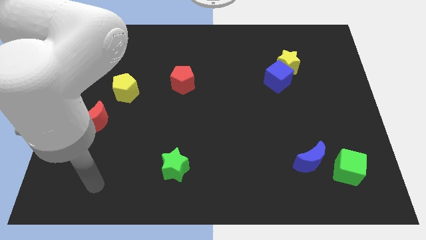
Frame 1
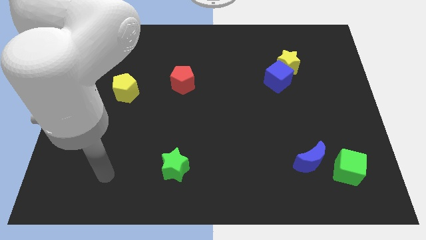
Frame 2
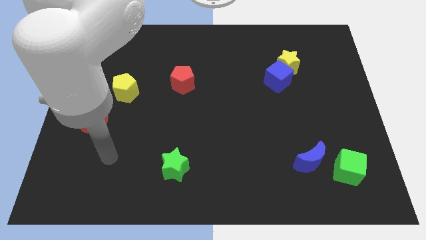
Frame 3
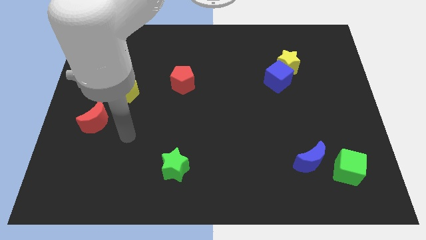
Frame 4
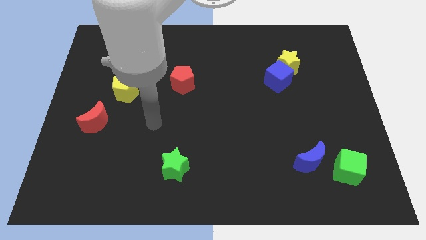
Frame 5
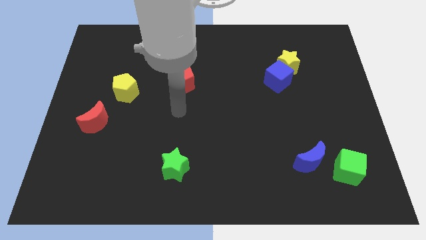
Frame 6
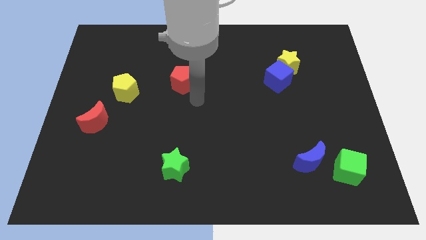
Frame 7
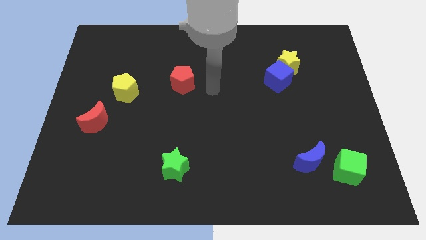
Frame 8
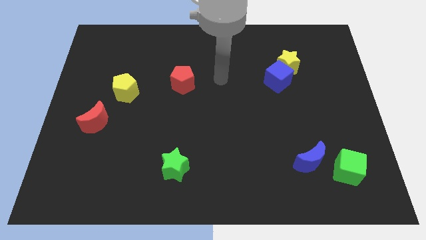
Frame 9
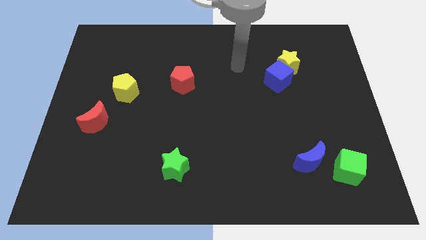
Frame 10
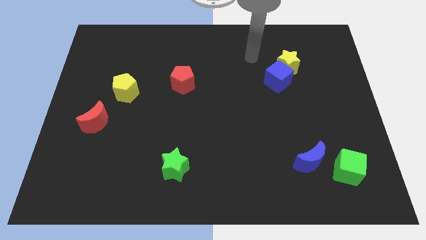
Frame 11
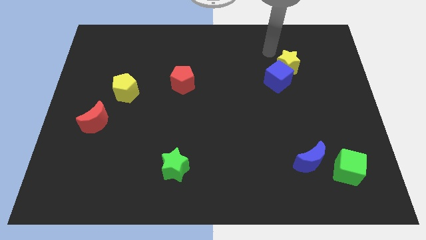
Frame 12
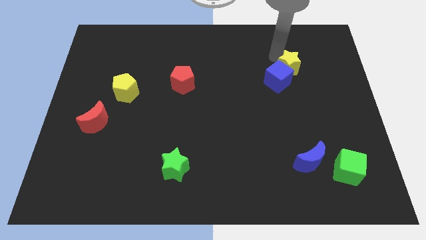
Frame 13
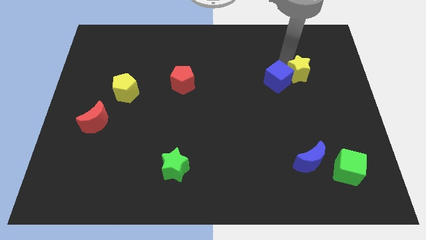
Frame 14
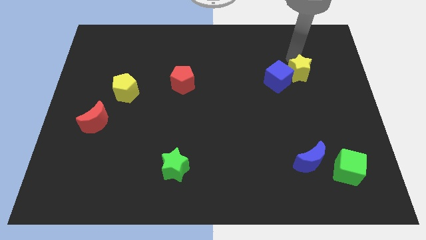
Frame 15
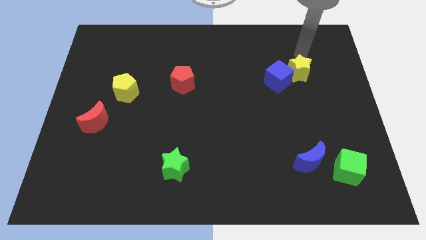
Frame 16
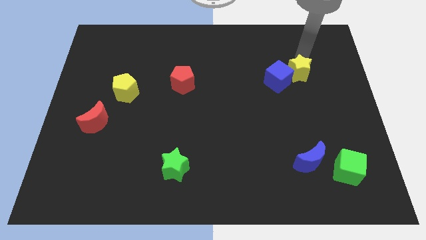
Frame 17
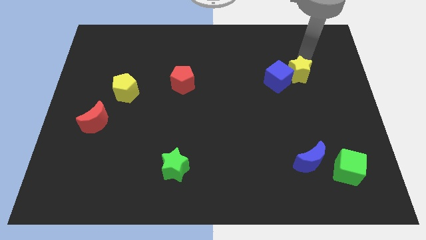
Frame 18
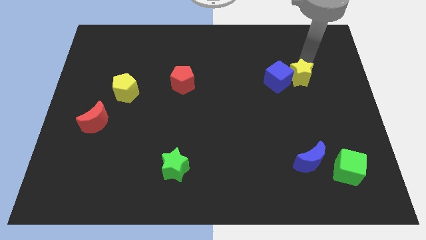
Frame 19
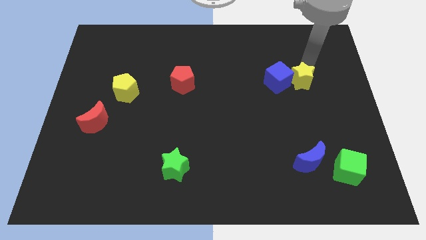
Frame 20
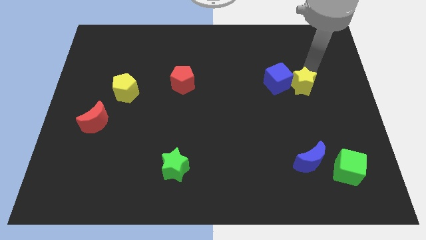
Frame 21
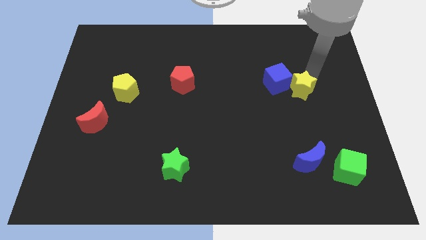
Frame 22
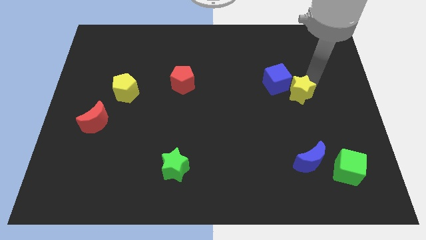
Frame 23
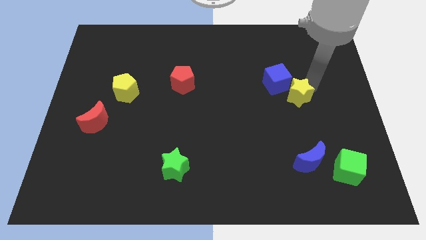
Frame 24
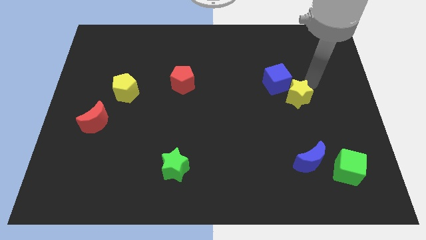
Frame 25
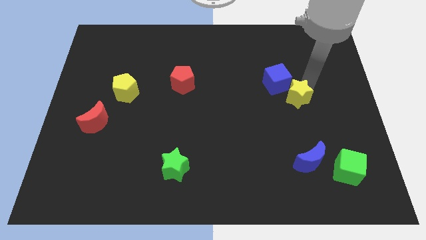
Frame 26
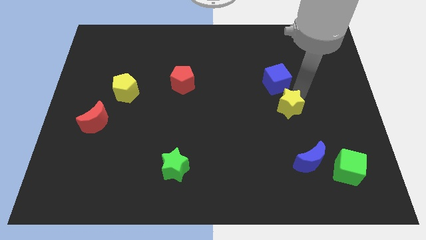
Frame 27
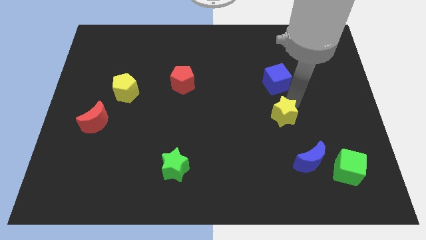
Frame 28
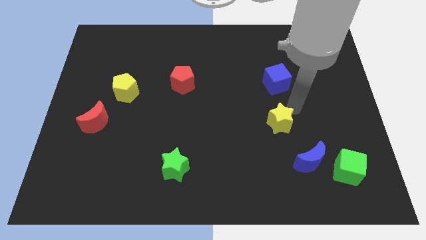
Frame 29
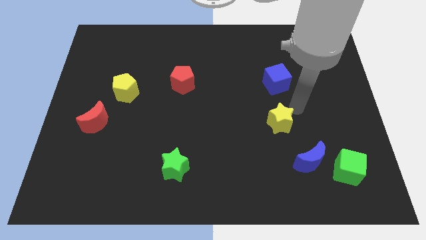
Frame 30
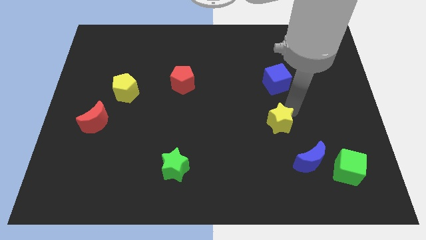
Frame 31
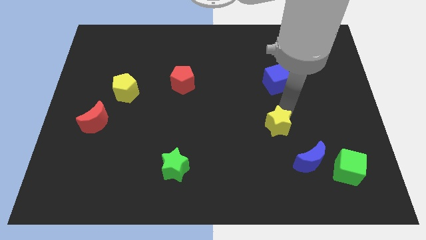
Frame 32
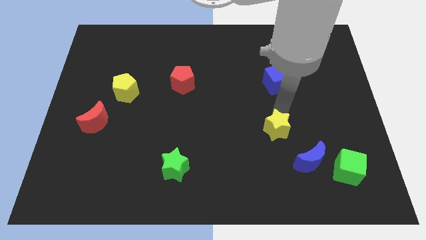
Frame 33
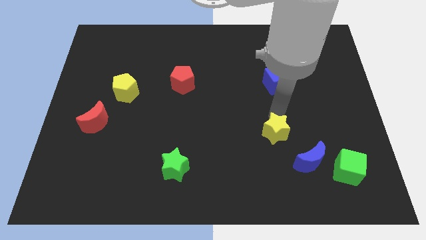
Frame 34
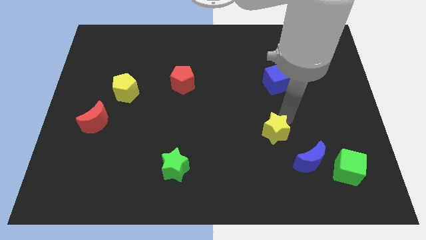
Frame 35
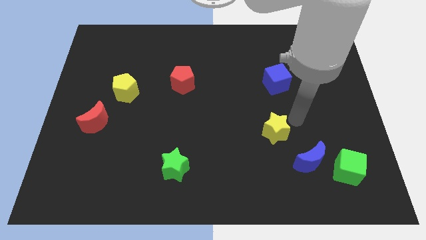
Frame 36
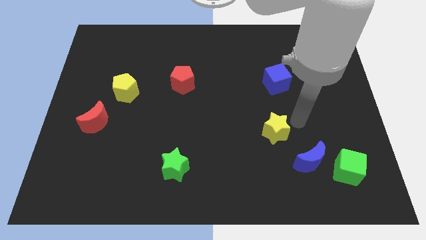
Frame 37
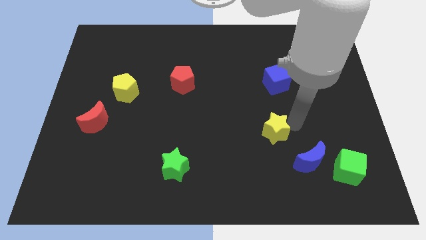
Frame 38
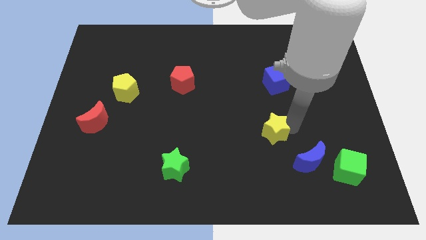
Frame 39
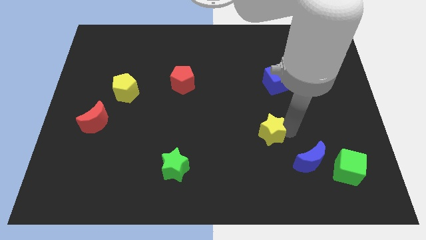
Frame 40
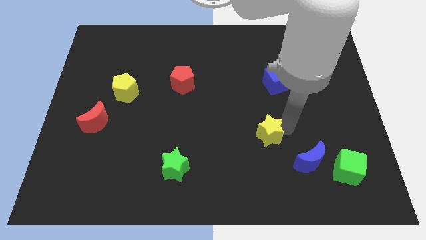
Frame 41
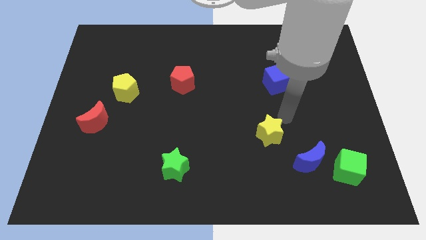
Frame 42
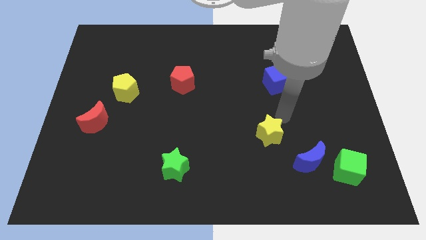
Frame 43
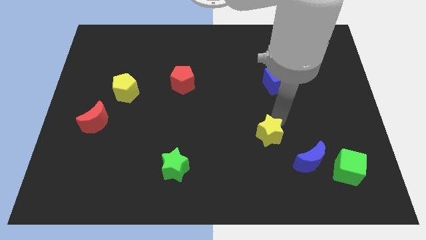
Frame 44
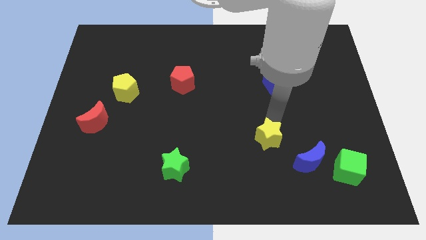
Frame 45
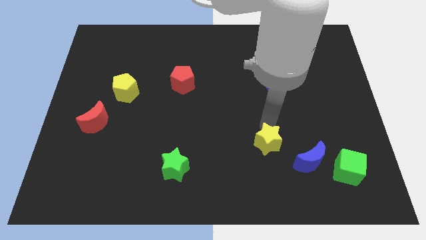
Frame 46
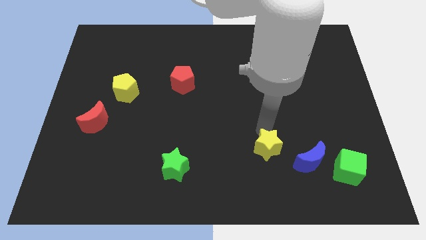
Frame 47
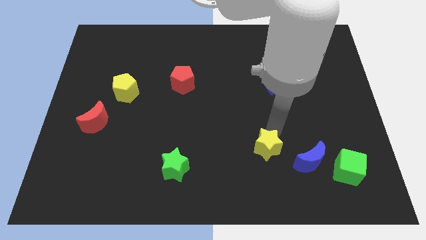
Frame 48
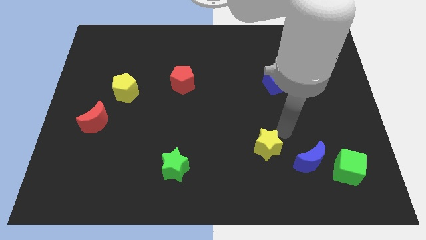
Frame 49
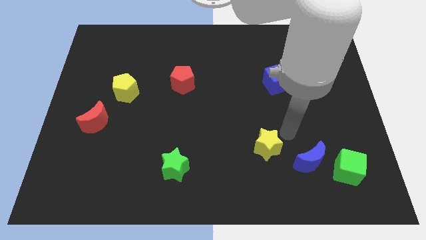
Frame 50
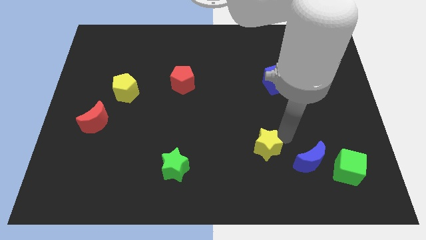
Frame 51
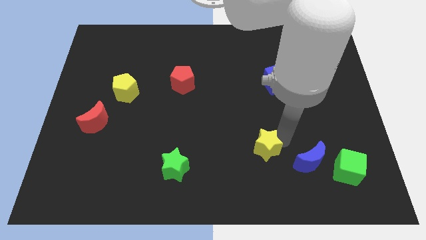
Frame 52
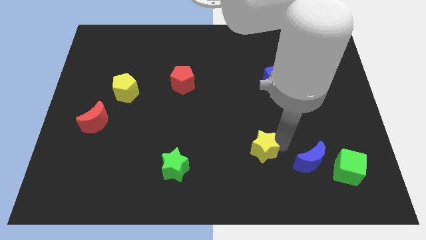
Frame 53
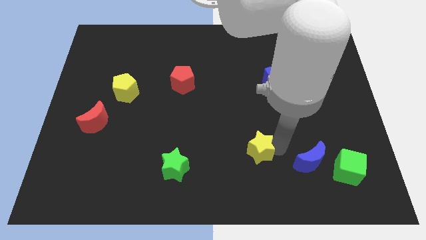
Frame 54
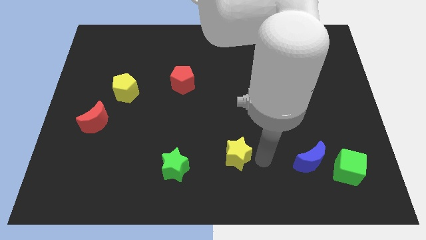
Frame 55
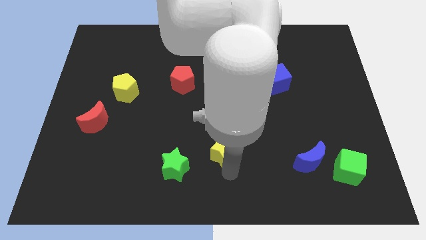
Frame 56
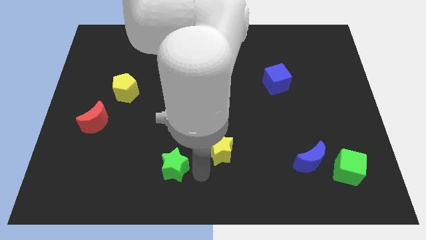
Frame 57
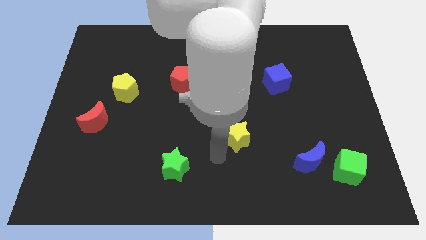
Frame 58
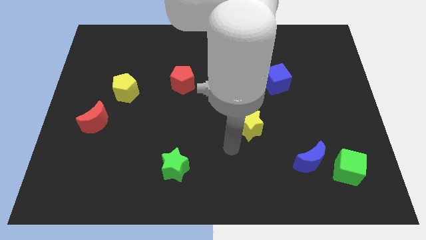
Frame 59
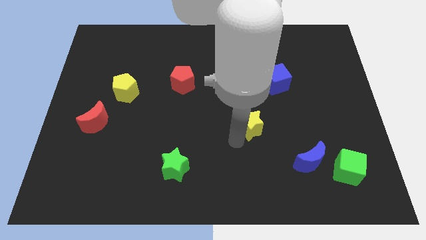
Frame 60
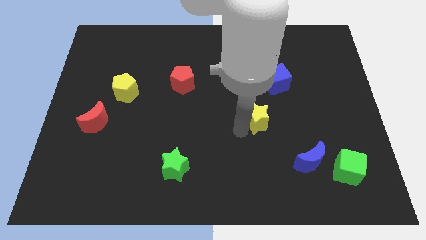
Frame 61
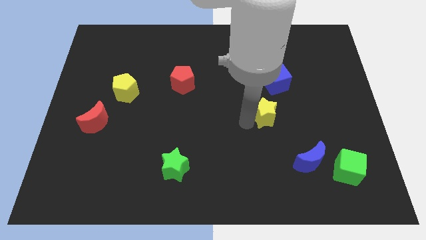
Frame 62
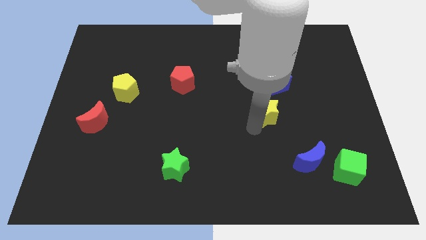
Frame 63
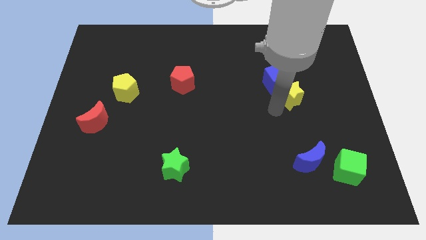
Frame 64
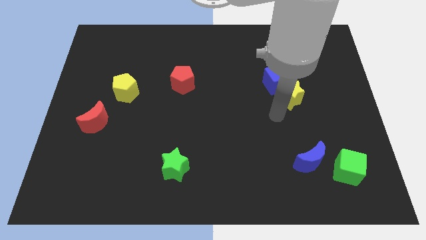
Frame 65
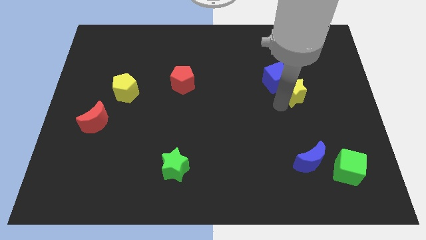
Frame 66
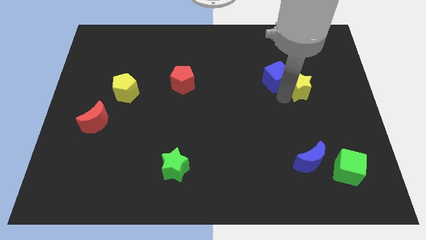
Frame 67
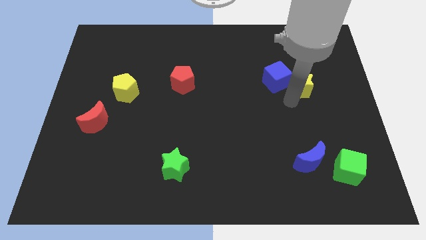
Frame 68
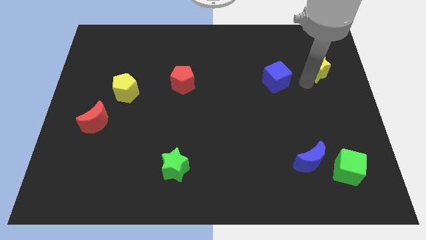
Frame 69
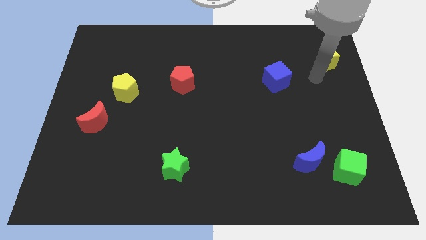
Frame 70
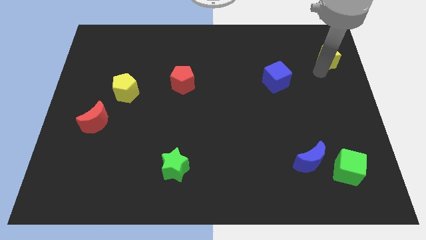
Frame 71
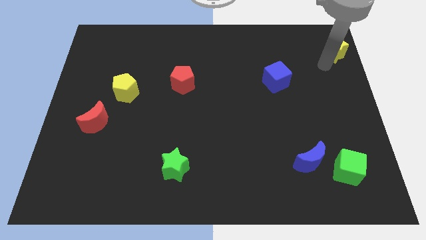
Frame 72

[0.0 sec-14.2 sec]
push the yellow star to the upper right corner
